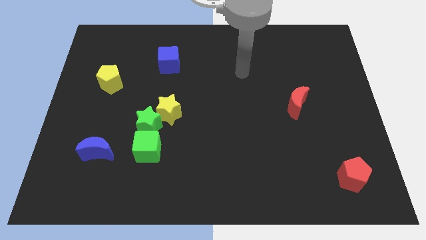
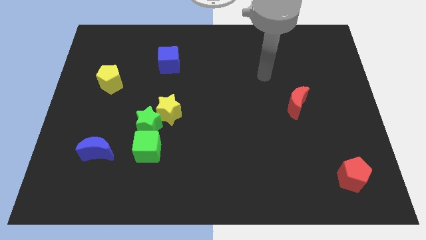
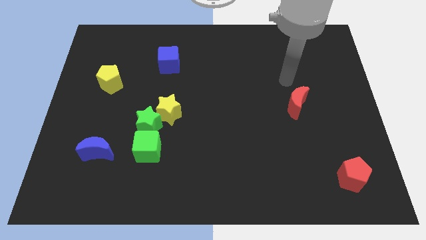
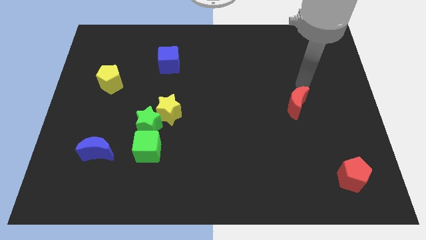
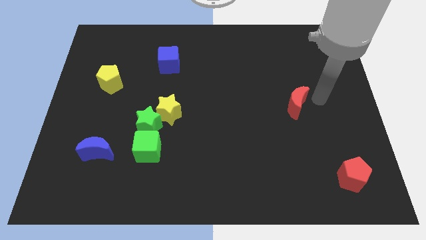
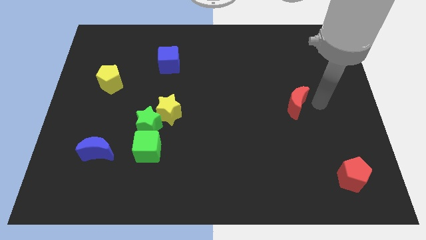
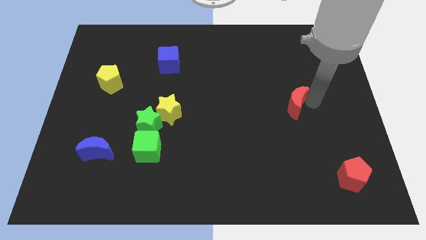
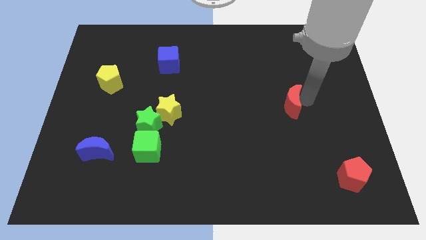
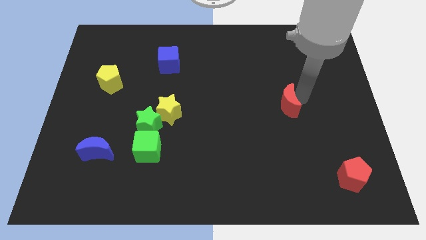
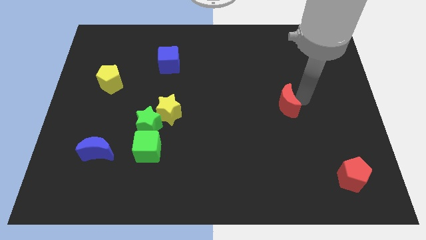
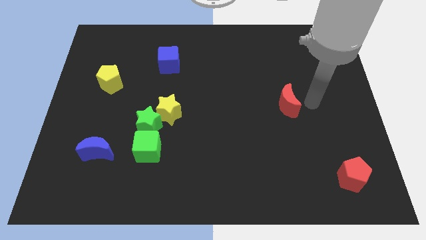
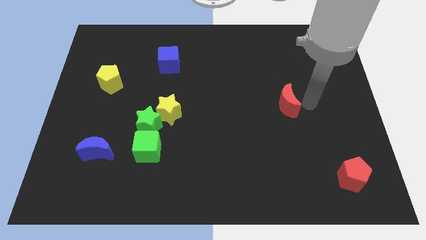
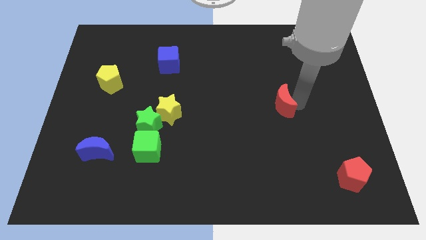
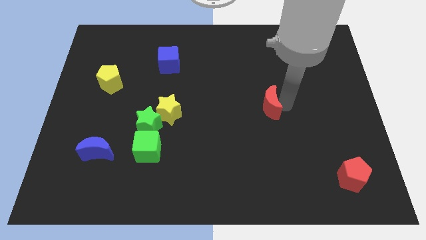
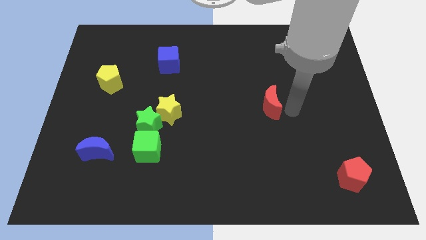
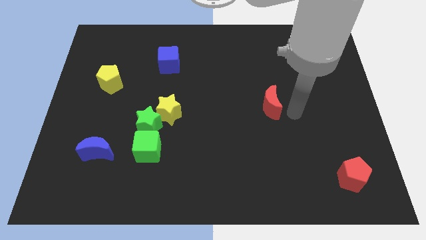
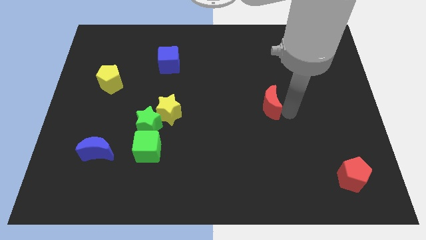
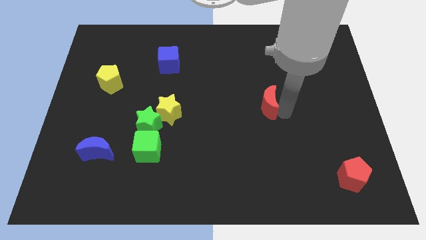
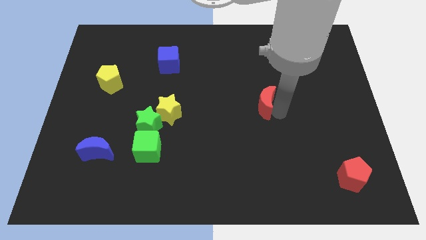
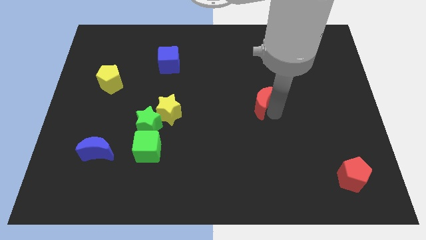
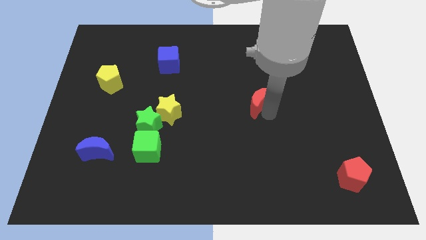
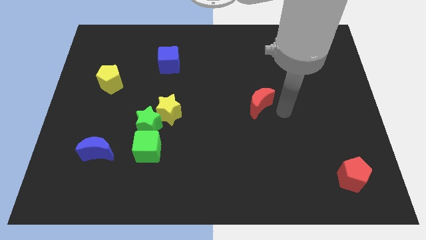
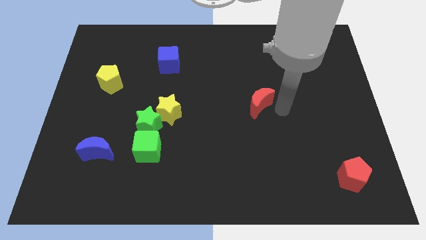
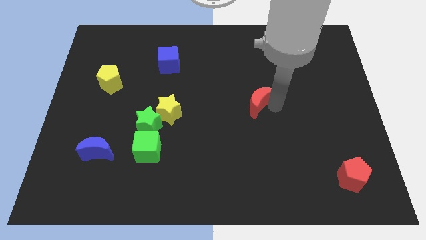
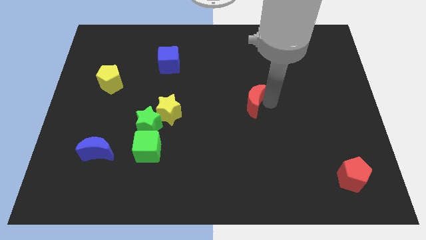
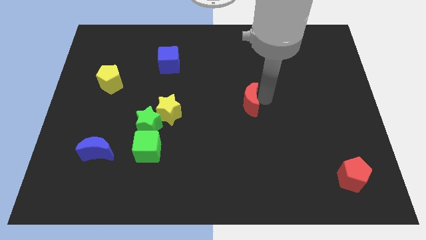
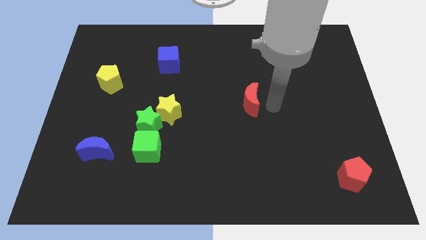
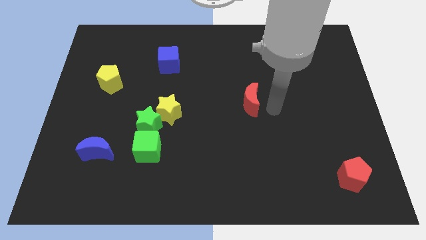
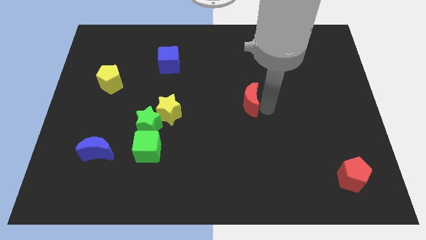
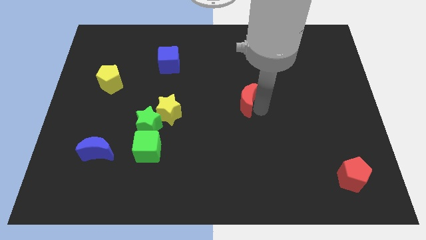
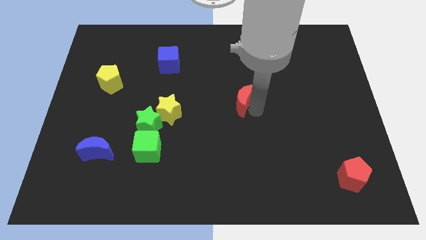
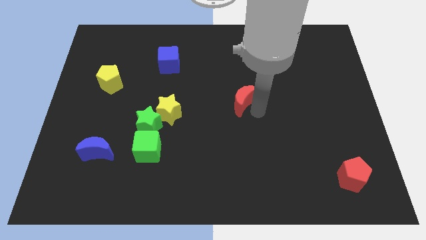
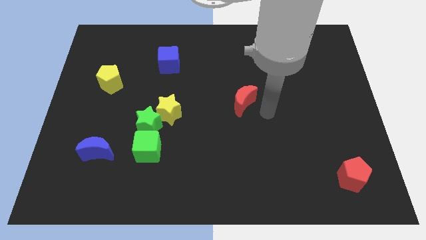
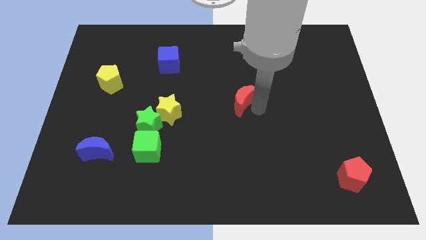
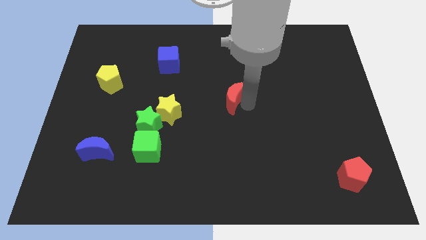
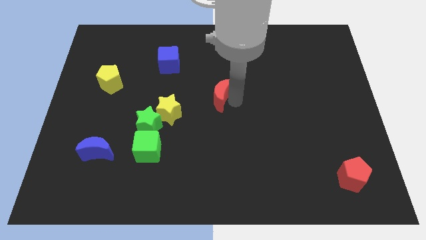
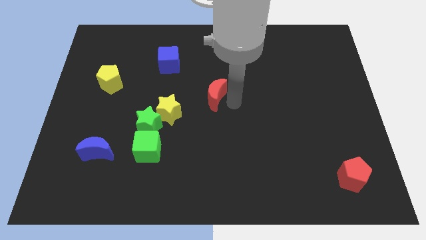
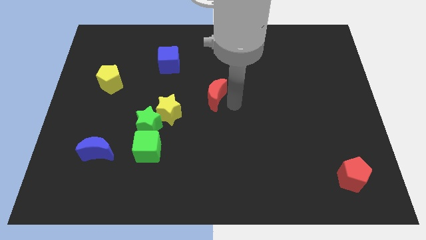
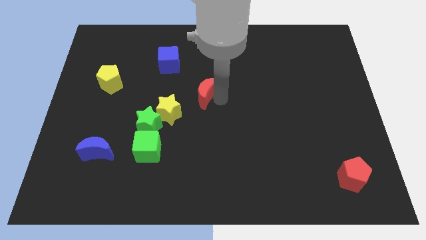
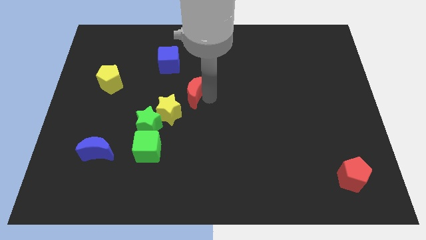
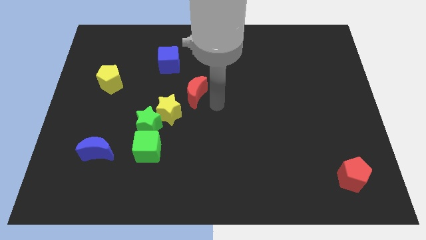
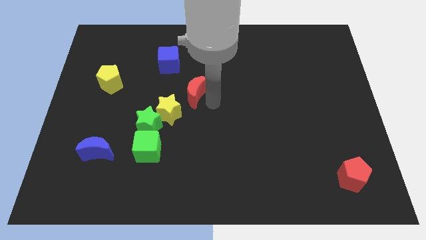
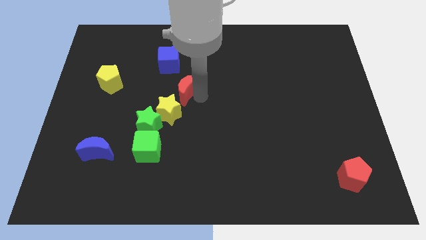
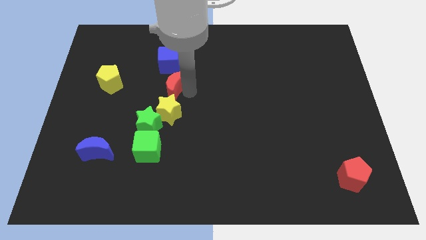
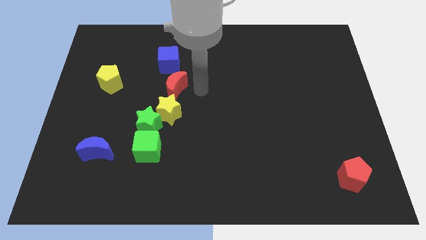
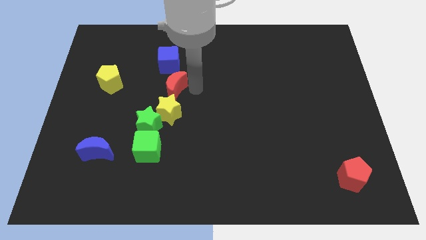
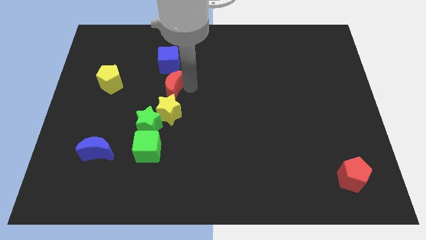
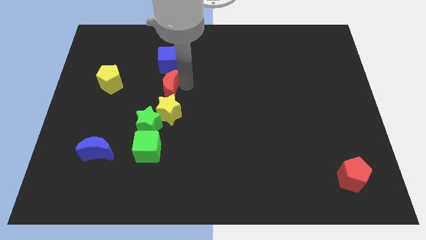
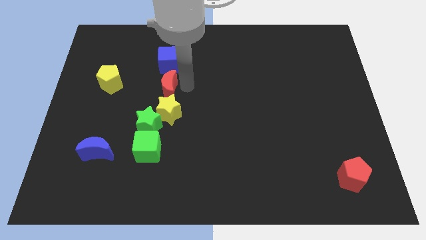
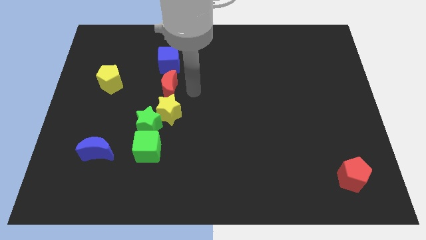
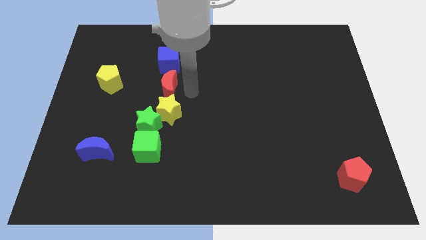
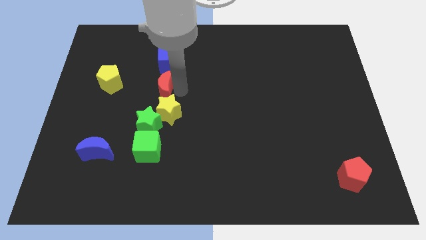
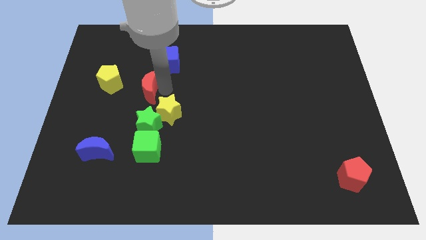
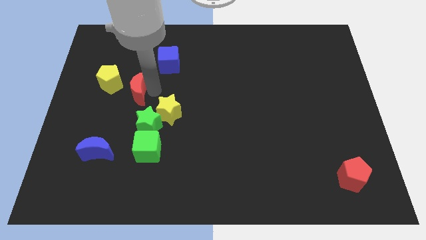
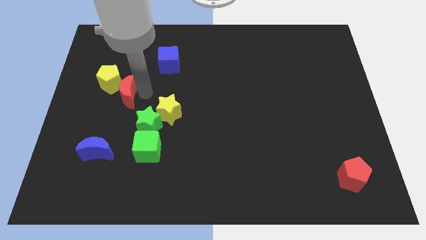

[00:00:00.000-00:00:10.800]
move the red moon towards the yellow pentagon

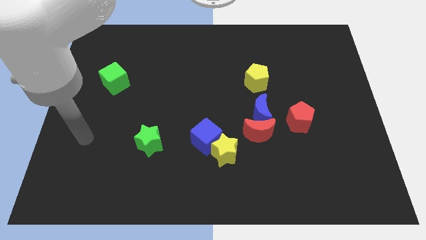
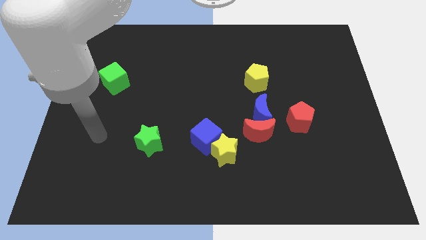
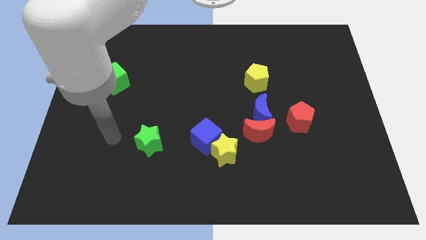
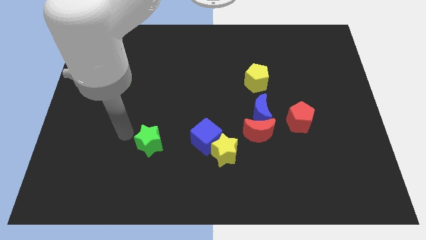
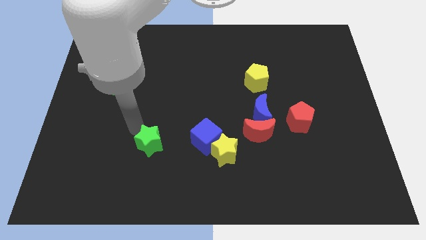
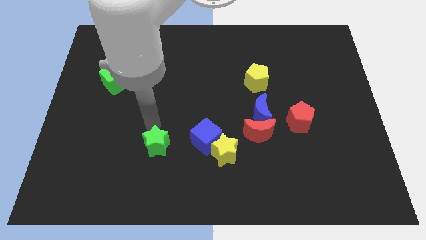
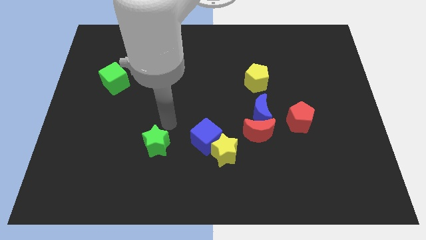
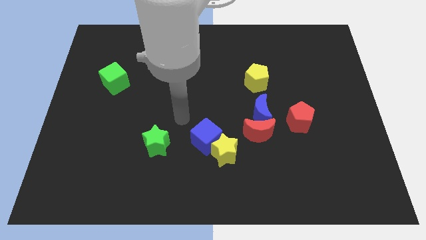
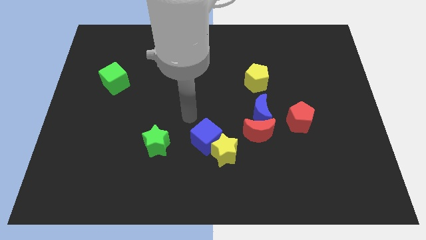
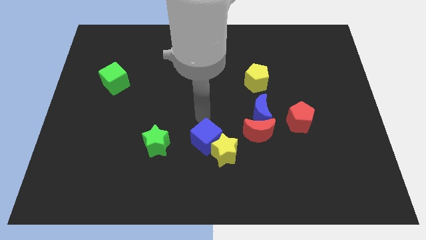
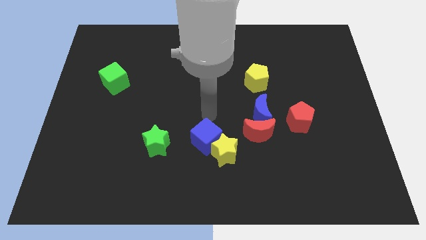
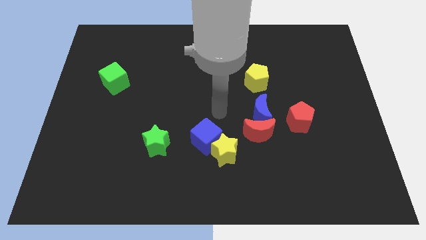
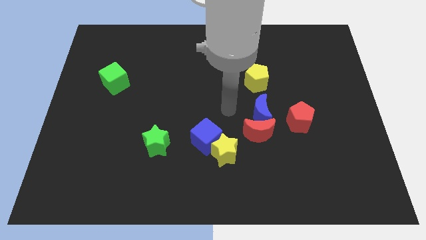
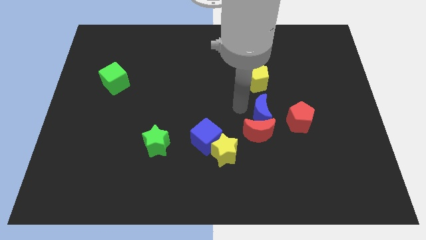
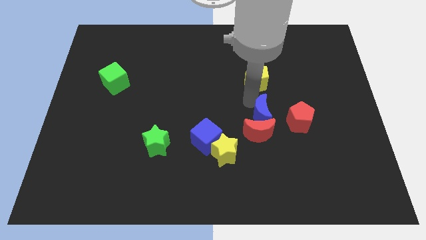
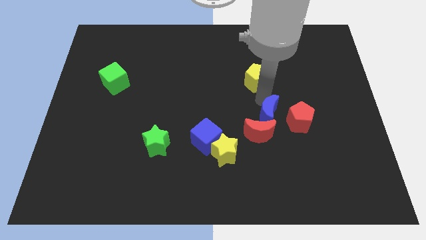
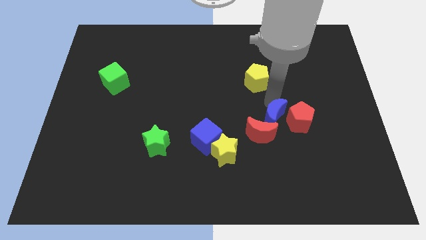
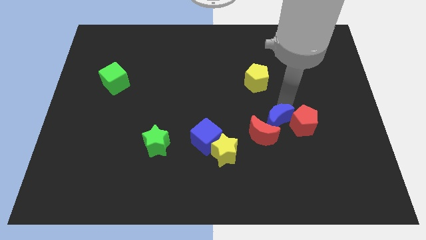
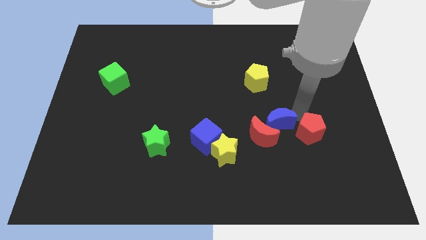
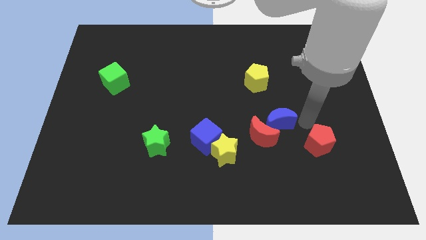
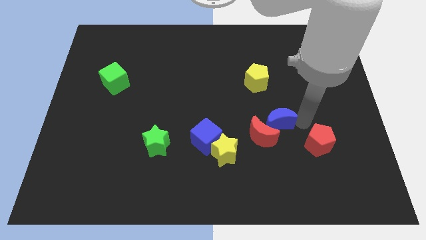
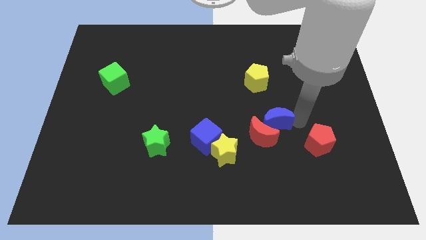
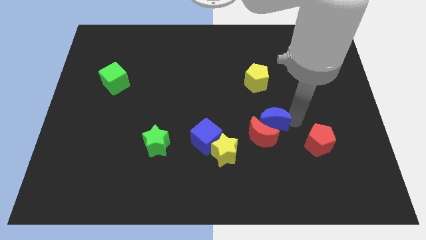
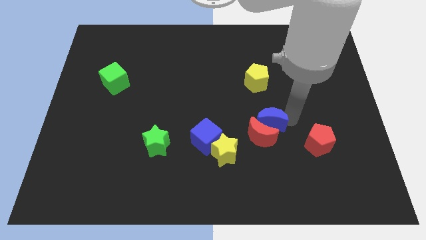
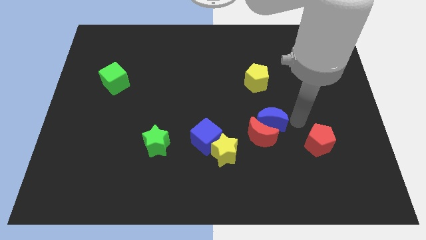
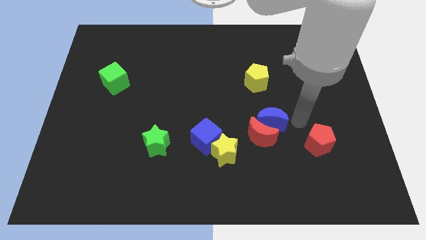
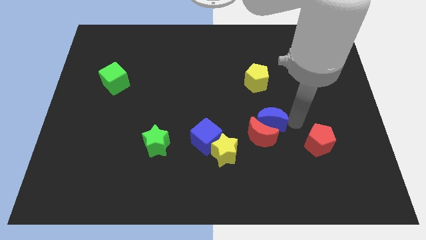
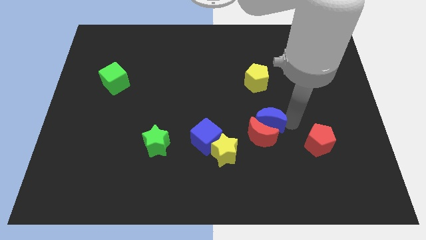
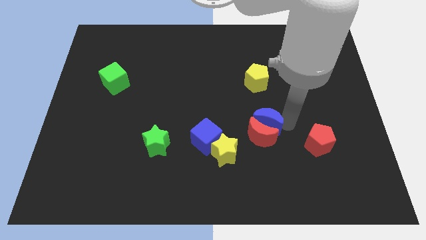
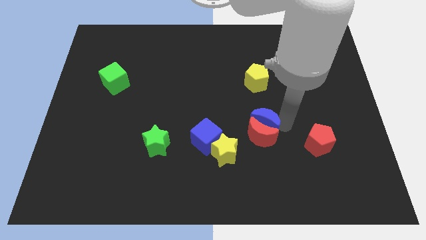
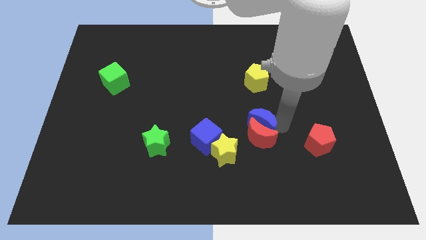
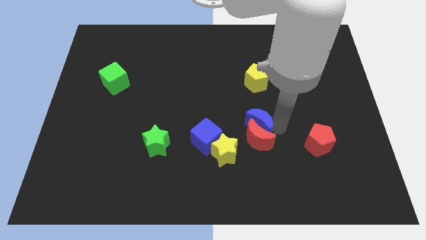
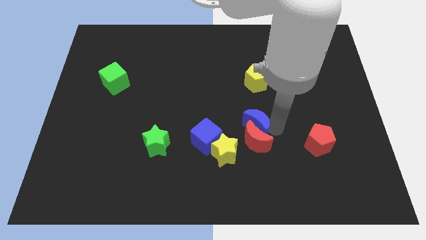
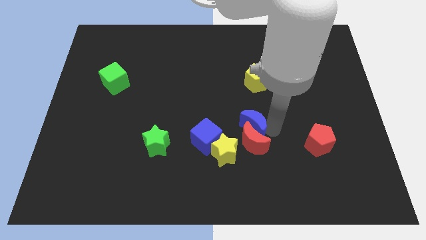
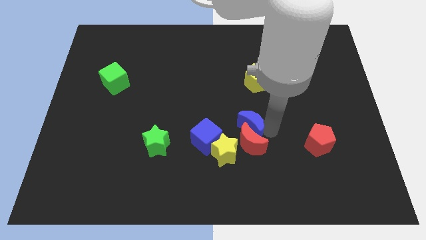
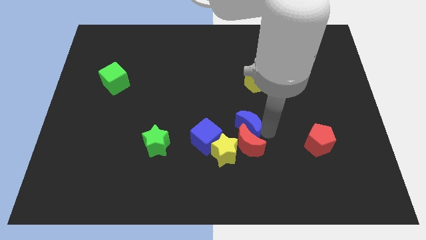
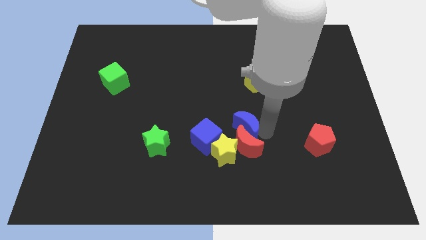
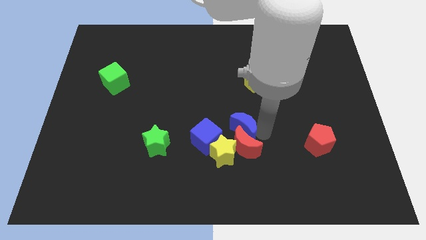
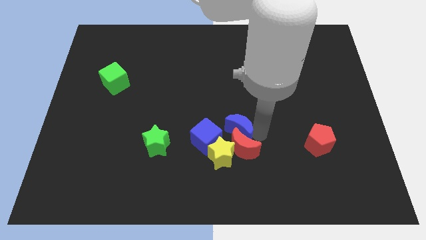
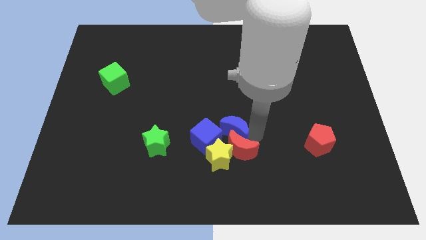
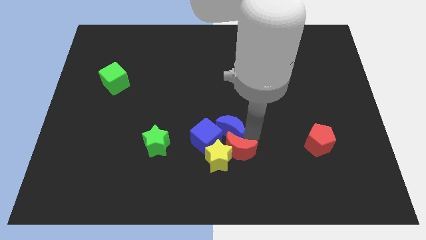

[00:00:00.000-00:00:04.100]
slide the blue moon close to the blue cube
